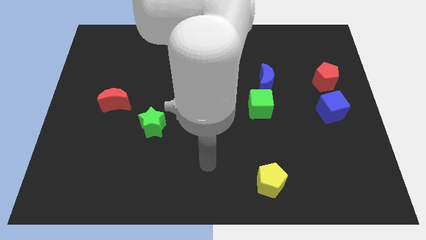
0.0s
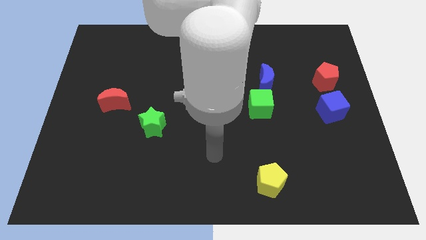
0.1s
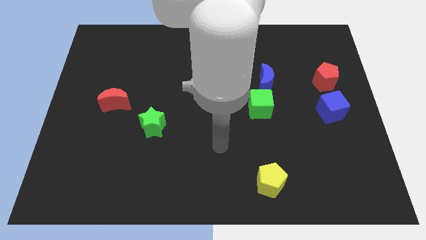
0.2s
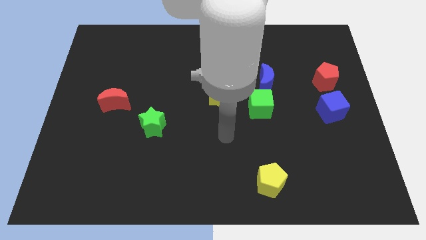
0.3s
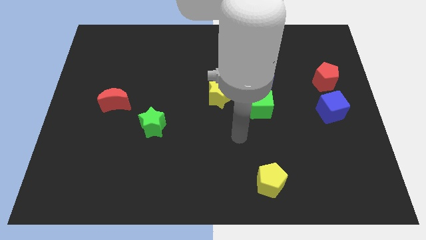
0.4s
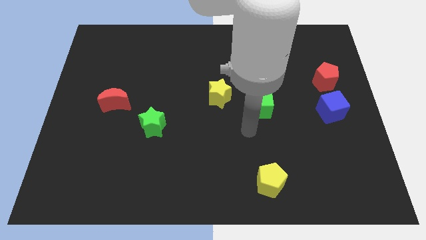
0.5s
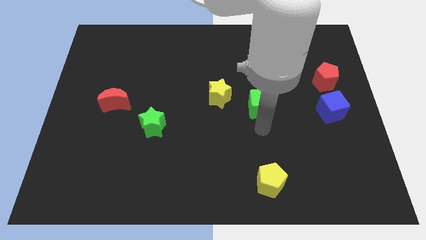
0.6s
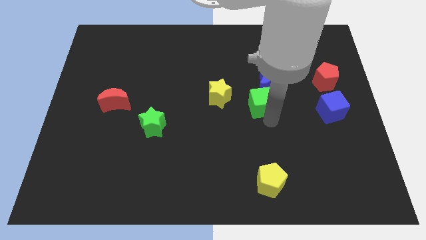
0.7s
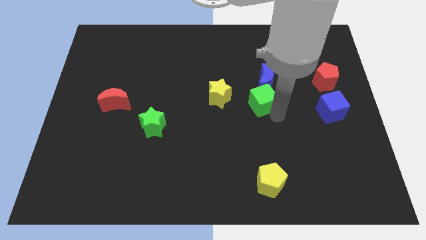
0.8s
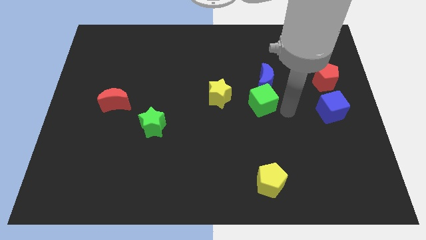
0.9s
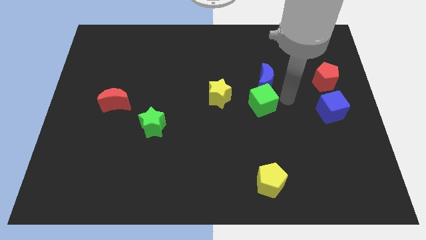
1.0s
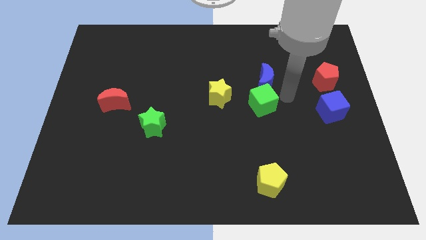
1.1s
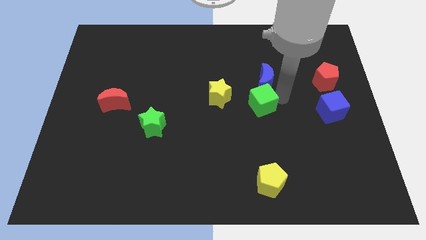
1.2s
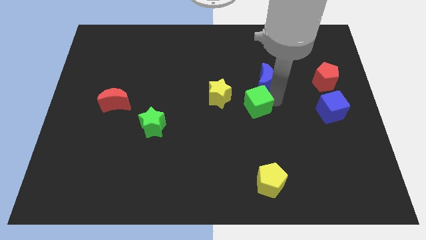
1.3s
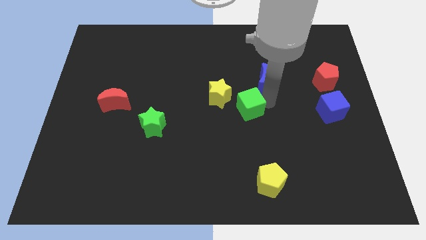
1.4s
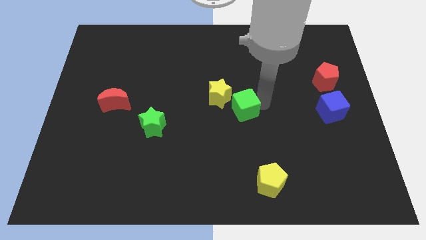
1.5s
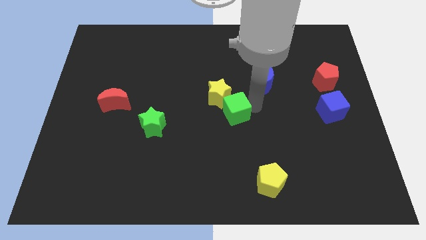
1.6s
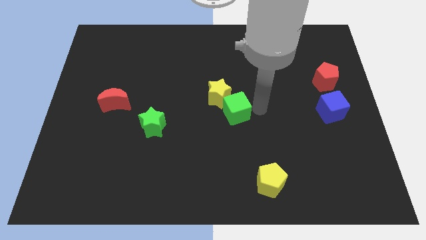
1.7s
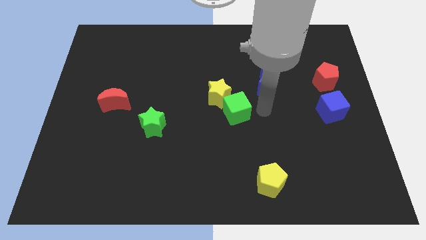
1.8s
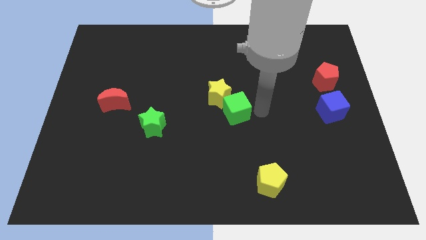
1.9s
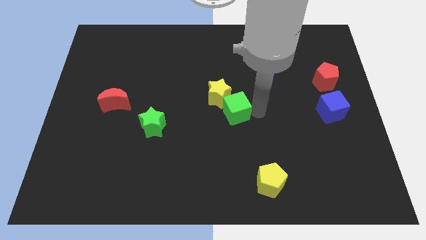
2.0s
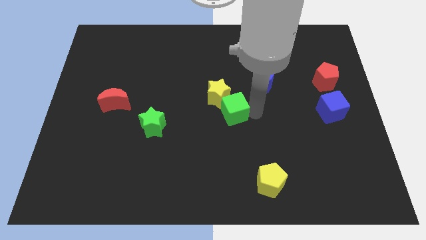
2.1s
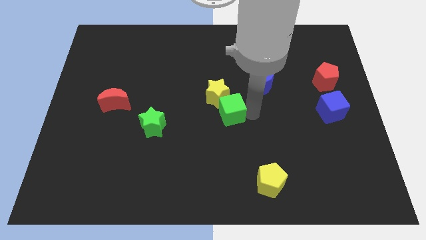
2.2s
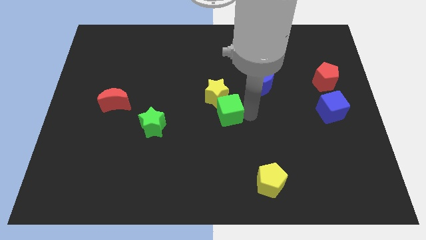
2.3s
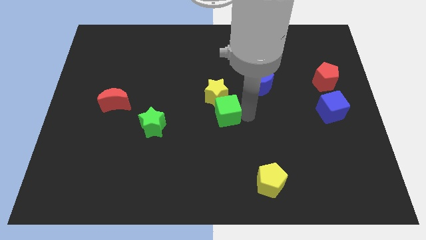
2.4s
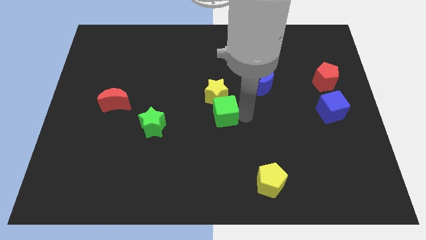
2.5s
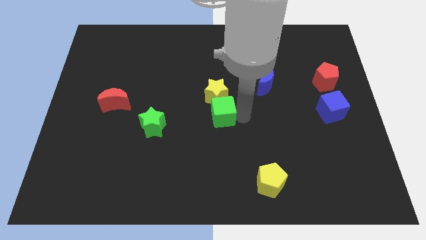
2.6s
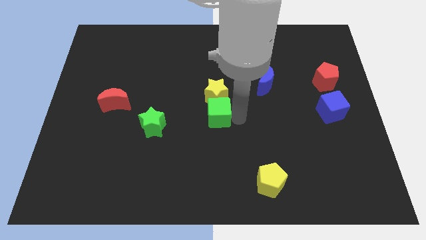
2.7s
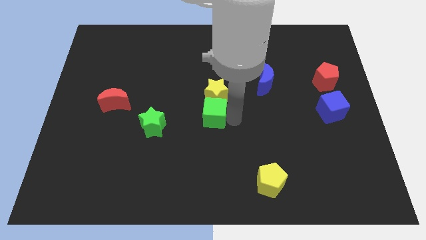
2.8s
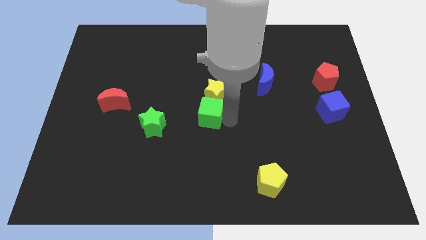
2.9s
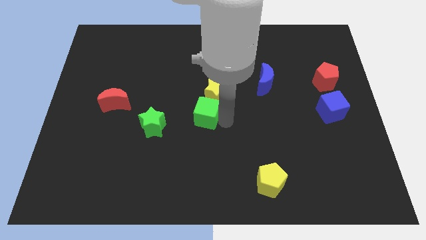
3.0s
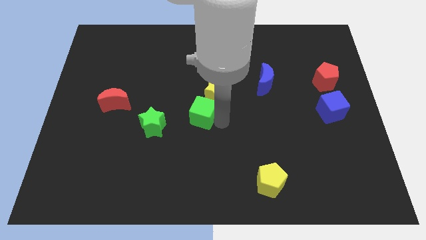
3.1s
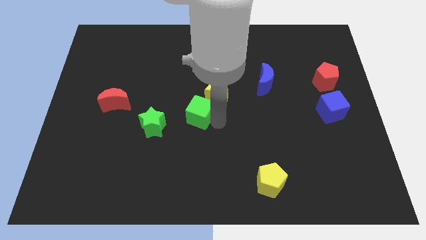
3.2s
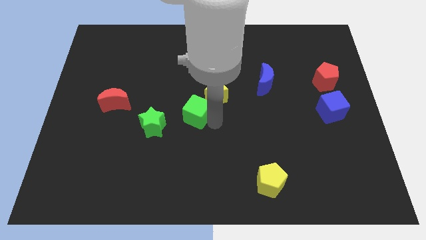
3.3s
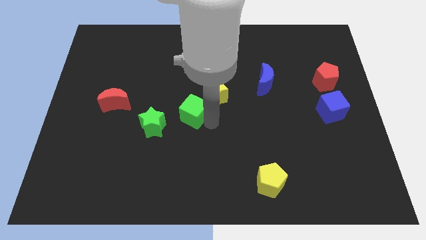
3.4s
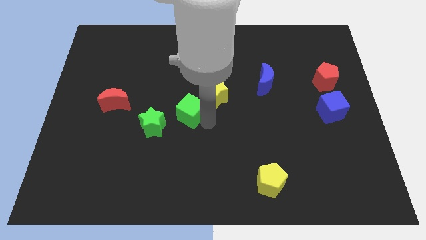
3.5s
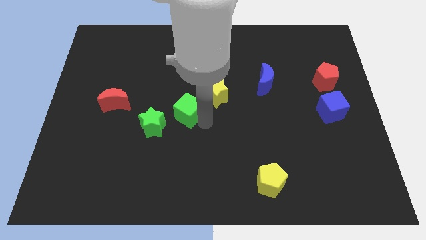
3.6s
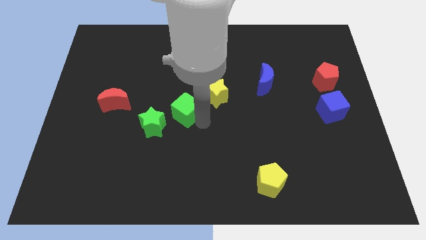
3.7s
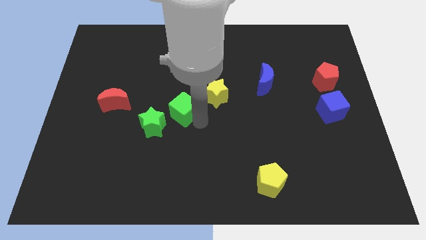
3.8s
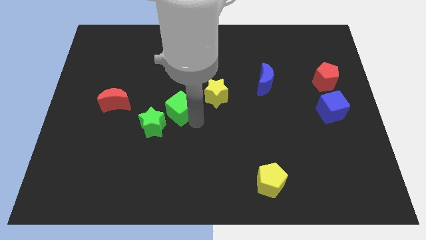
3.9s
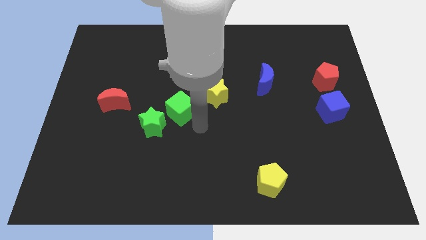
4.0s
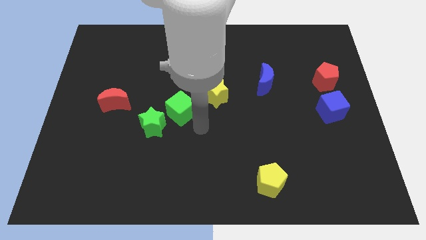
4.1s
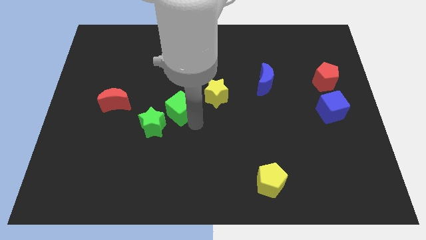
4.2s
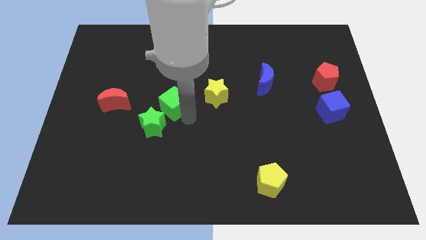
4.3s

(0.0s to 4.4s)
slide the green cube to the top side of the green star

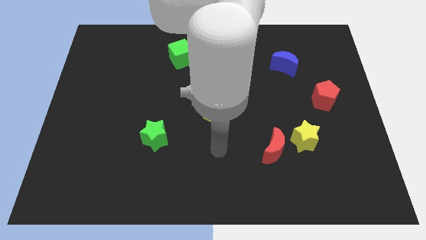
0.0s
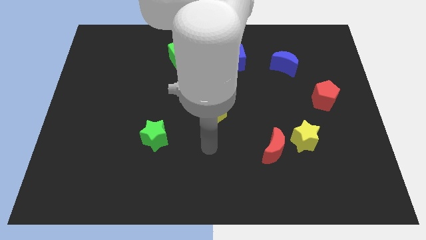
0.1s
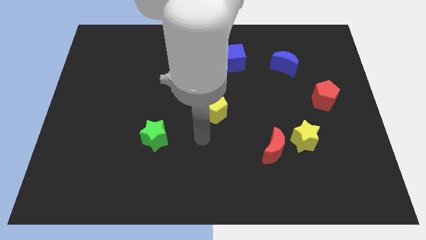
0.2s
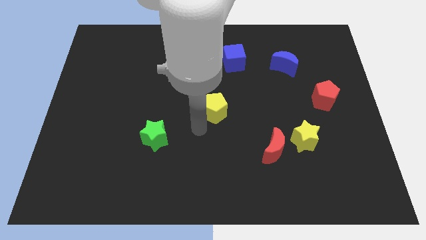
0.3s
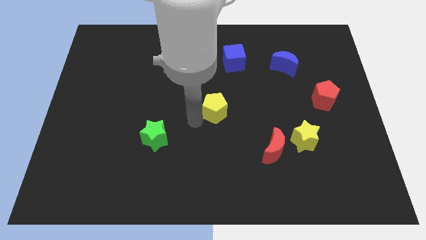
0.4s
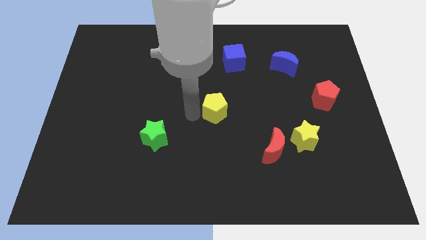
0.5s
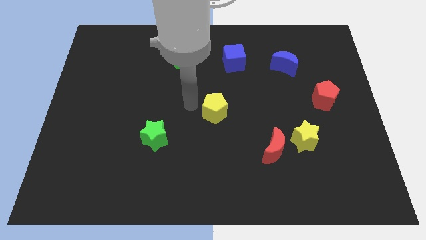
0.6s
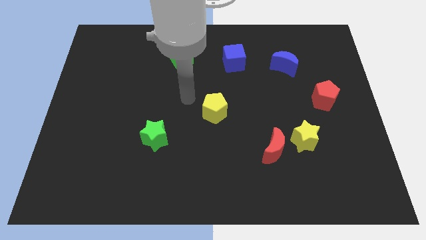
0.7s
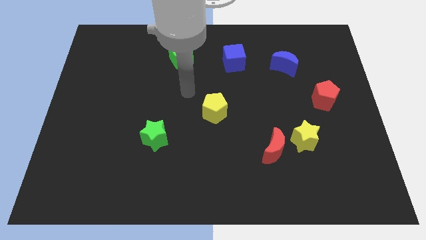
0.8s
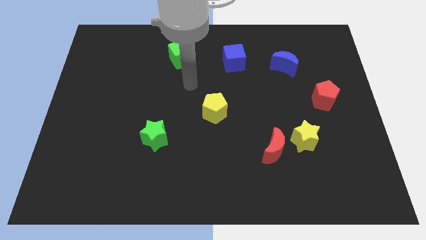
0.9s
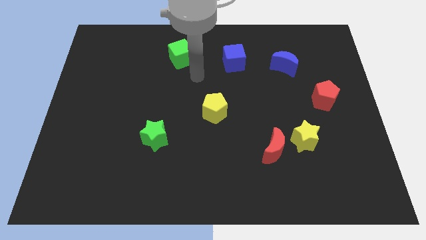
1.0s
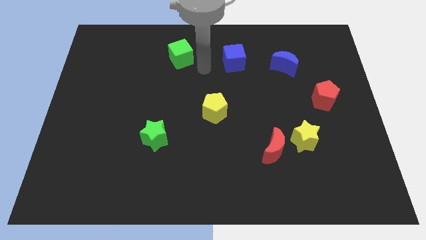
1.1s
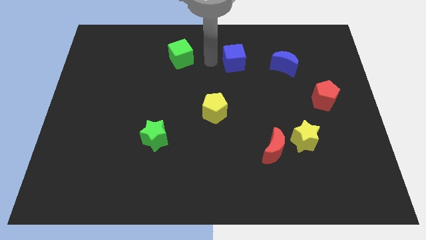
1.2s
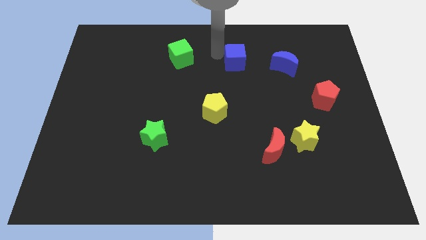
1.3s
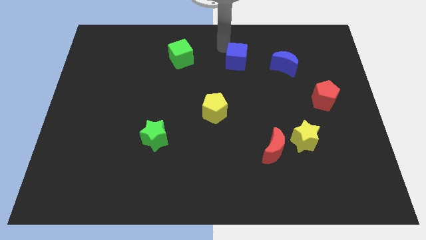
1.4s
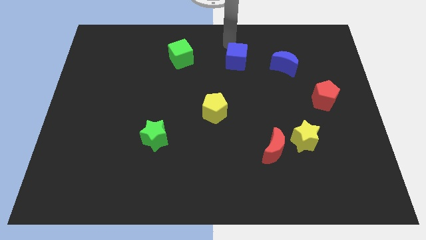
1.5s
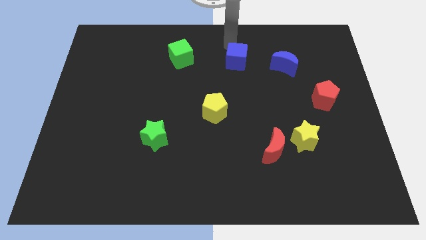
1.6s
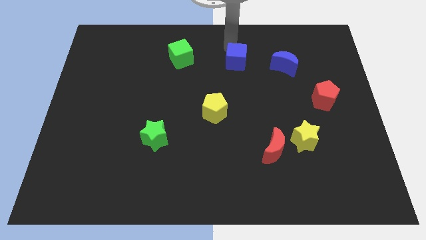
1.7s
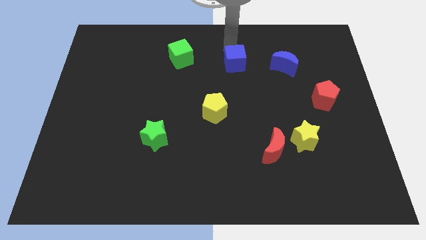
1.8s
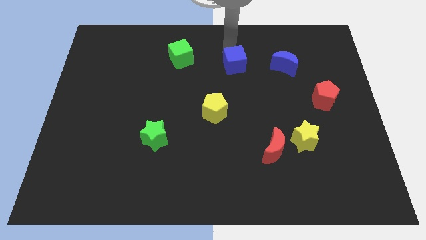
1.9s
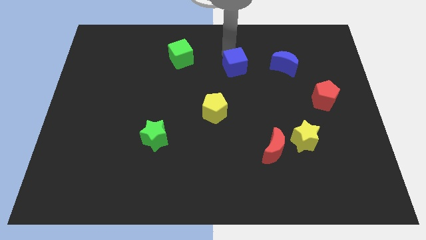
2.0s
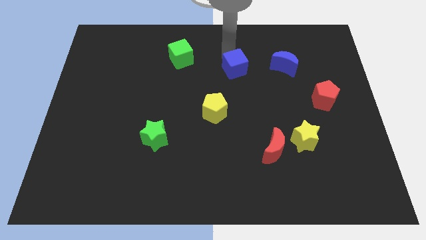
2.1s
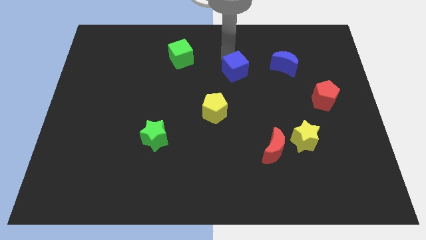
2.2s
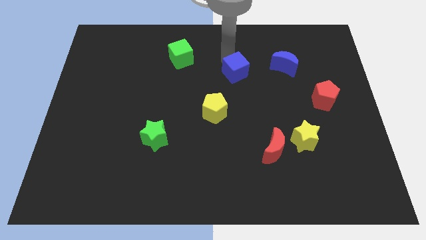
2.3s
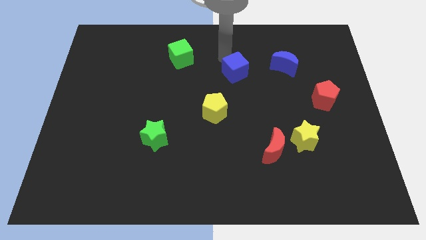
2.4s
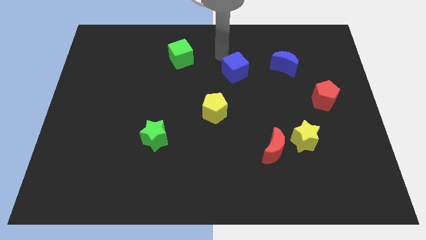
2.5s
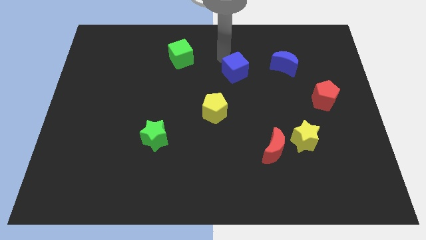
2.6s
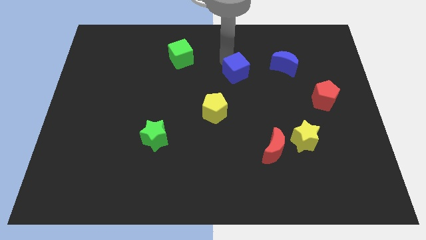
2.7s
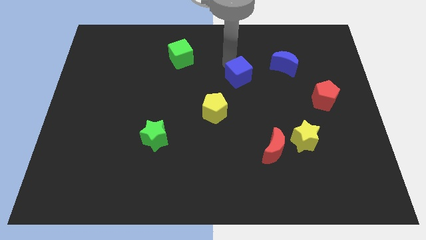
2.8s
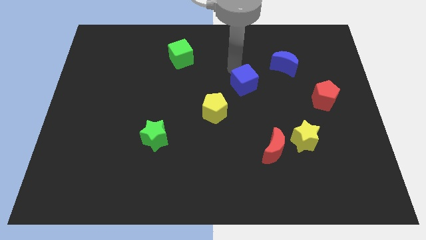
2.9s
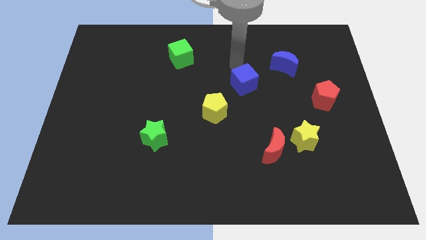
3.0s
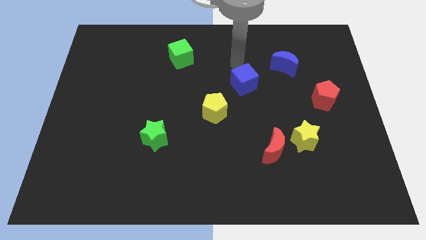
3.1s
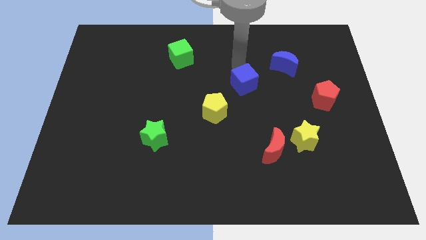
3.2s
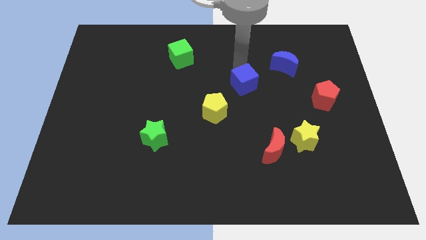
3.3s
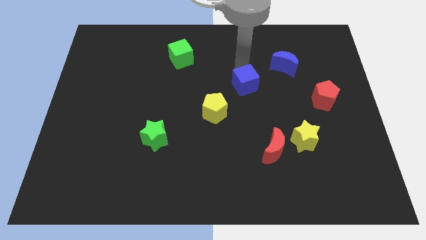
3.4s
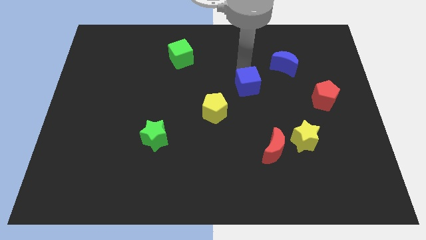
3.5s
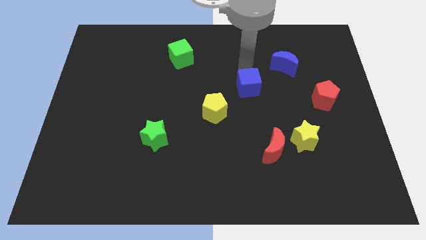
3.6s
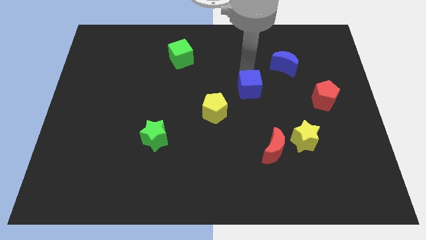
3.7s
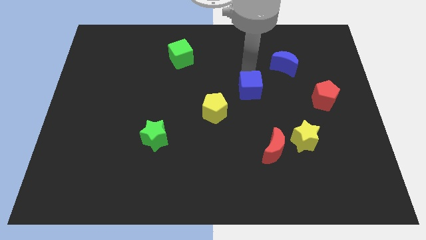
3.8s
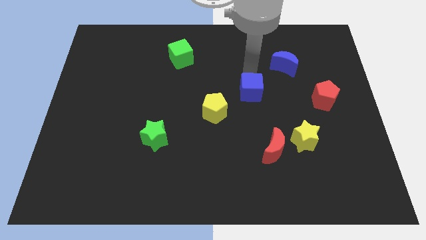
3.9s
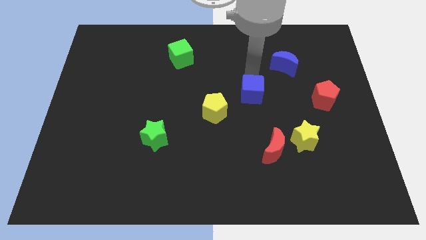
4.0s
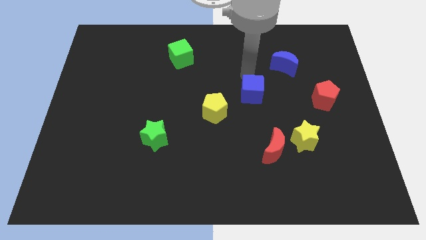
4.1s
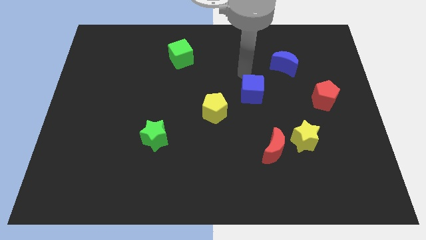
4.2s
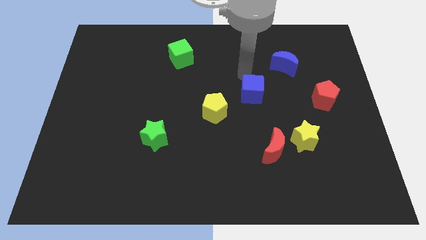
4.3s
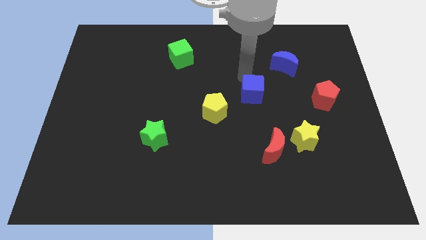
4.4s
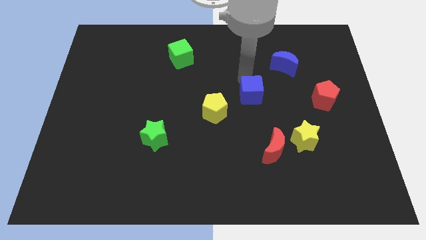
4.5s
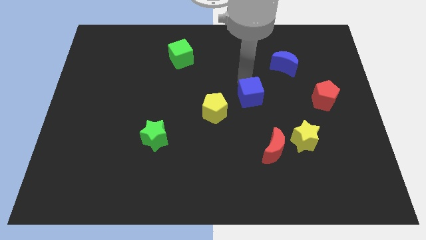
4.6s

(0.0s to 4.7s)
put the blue cube right of the yellow pentagon
